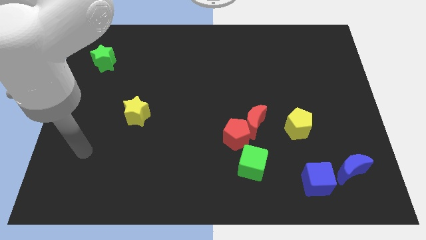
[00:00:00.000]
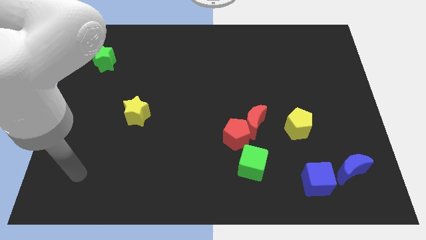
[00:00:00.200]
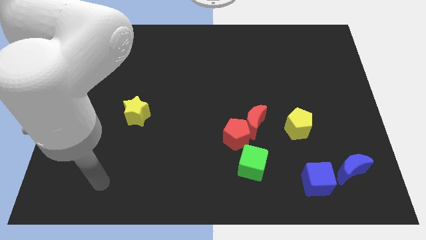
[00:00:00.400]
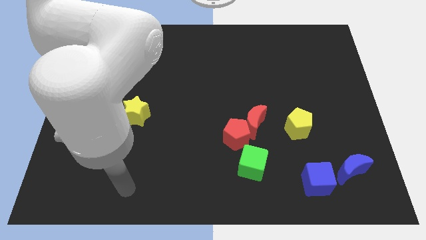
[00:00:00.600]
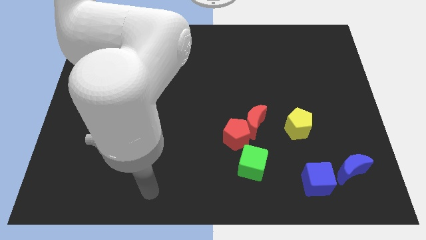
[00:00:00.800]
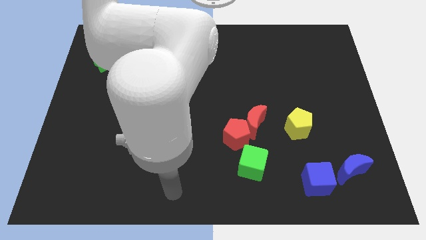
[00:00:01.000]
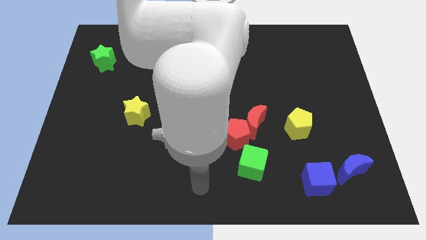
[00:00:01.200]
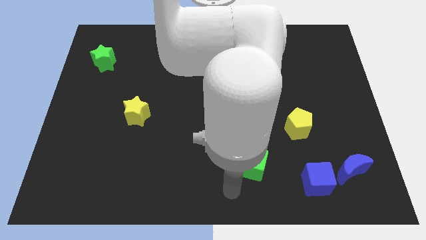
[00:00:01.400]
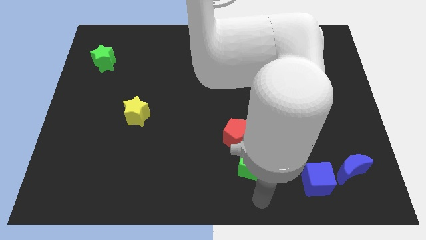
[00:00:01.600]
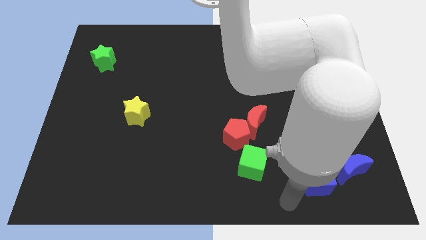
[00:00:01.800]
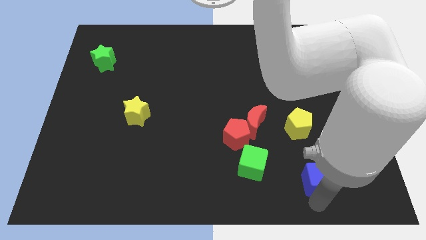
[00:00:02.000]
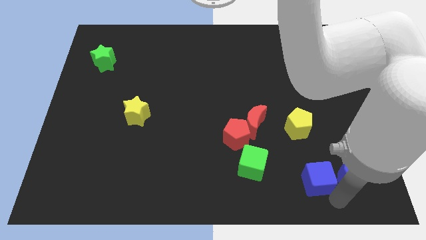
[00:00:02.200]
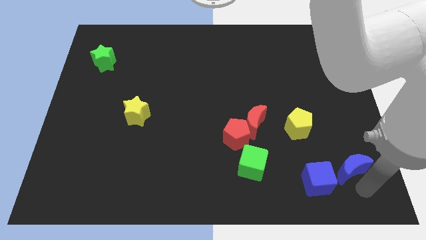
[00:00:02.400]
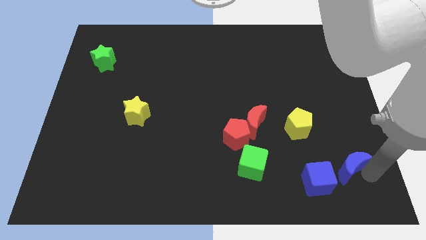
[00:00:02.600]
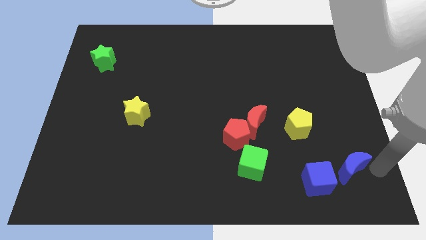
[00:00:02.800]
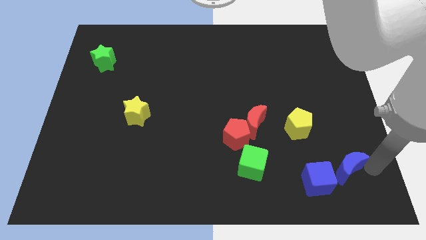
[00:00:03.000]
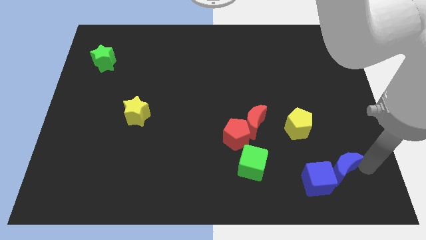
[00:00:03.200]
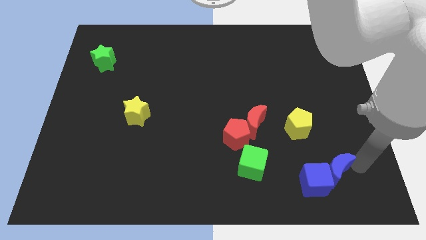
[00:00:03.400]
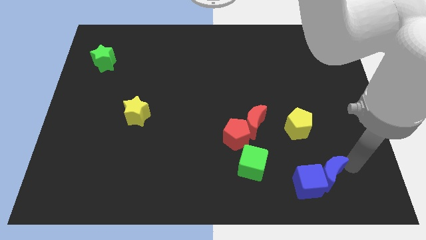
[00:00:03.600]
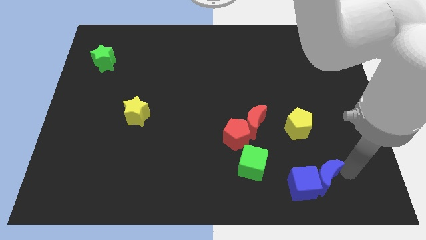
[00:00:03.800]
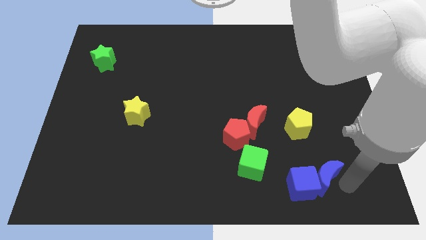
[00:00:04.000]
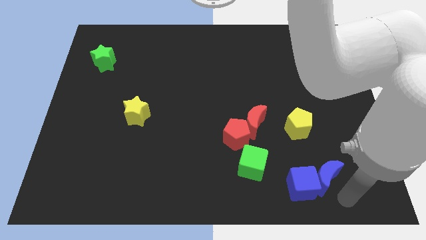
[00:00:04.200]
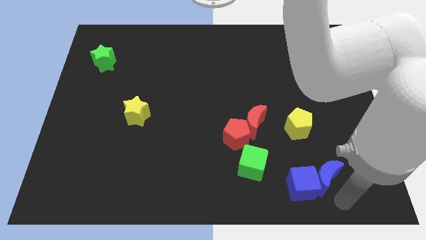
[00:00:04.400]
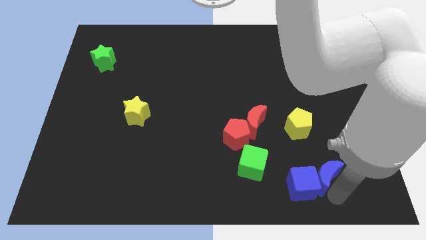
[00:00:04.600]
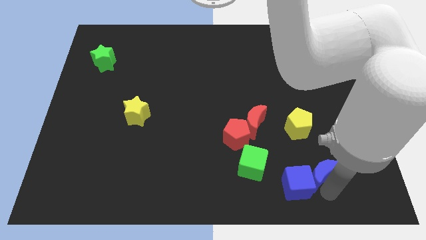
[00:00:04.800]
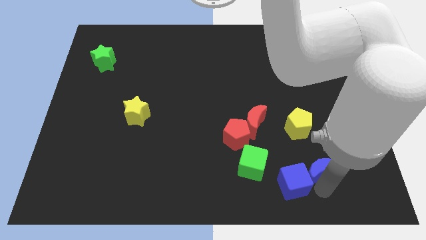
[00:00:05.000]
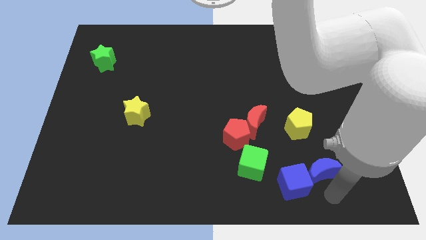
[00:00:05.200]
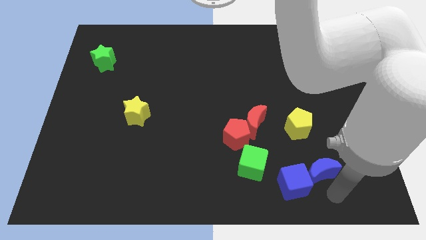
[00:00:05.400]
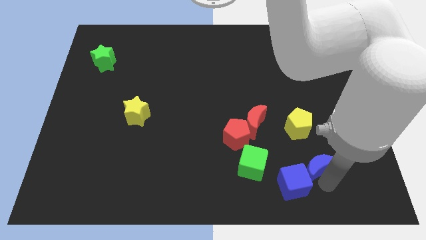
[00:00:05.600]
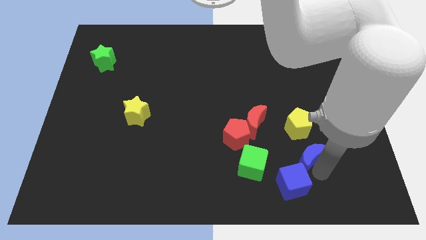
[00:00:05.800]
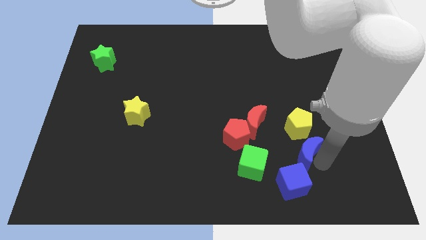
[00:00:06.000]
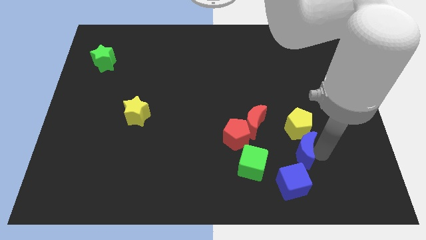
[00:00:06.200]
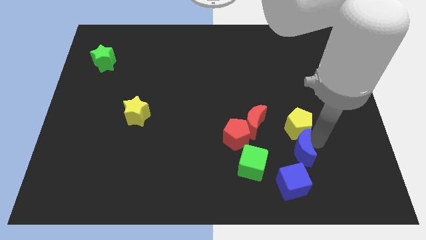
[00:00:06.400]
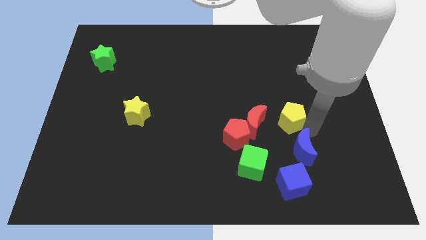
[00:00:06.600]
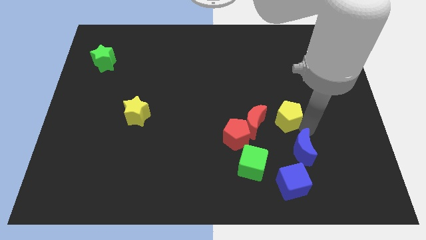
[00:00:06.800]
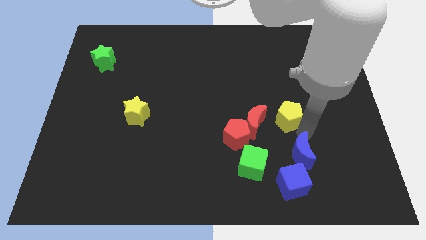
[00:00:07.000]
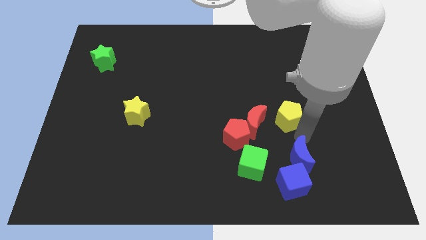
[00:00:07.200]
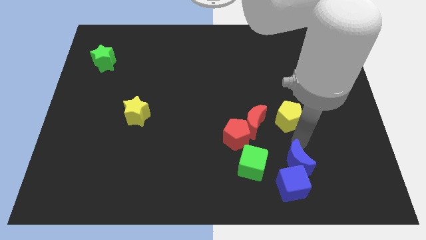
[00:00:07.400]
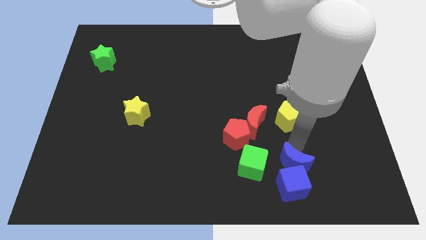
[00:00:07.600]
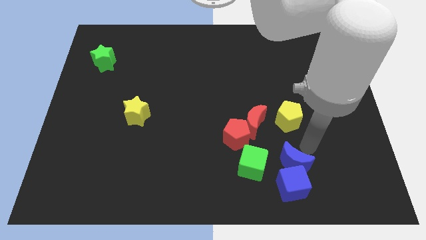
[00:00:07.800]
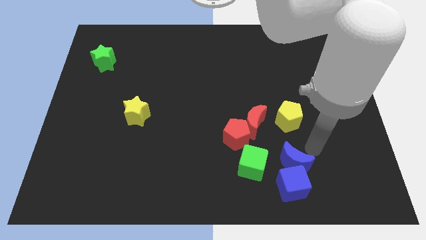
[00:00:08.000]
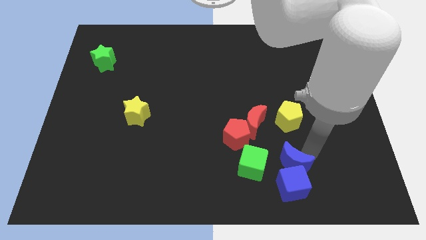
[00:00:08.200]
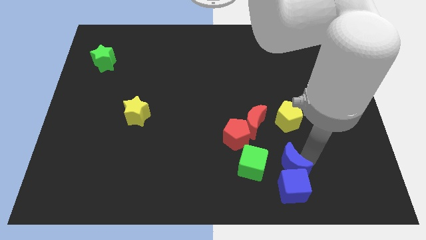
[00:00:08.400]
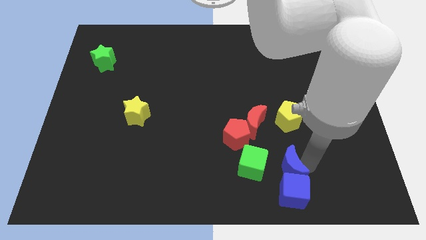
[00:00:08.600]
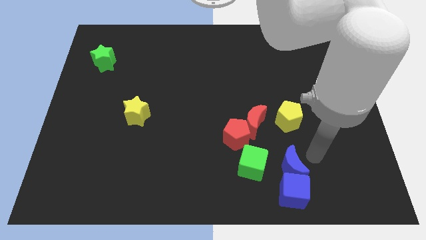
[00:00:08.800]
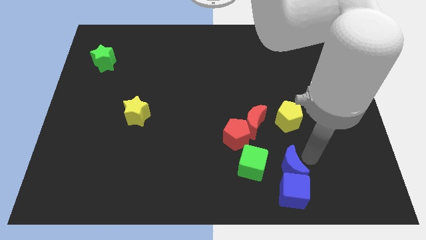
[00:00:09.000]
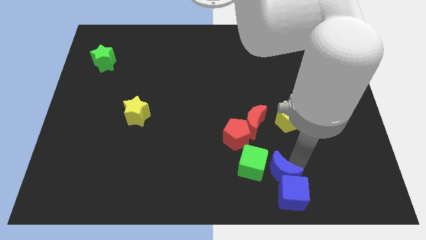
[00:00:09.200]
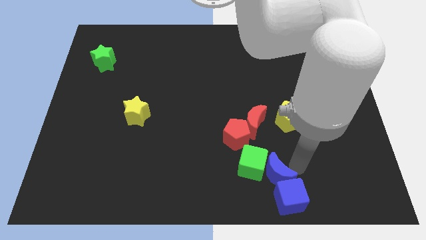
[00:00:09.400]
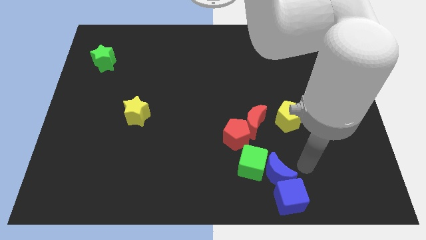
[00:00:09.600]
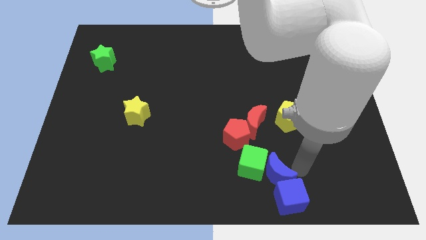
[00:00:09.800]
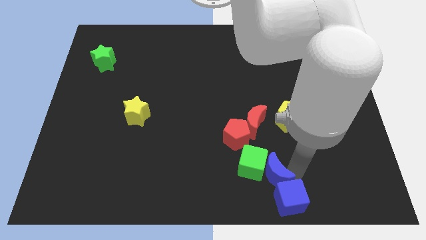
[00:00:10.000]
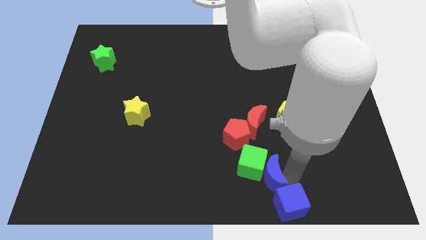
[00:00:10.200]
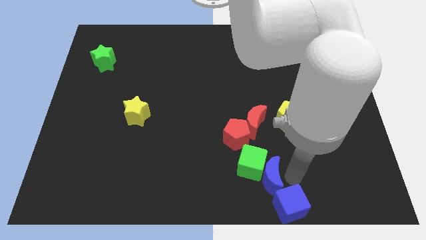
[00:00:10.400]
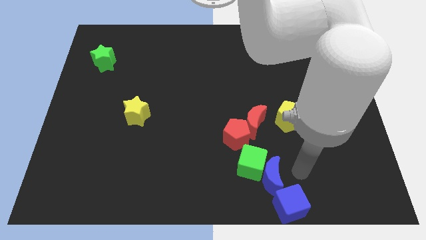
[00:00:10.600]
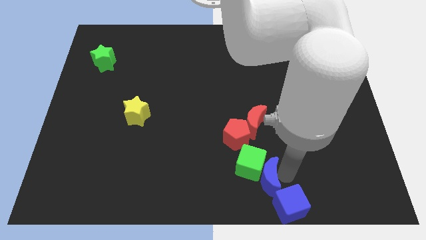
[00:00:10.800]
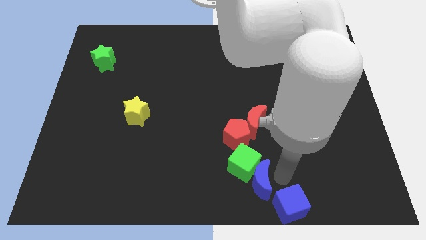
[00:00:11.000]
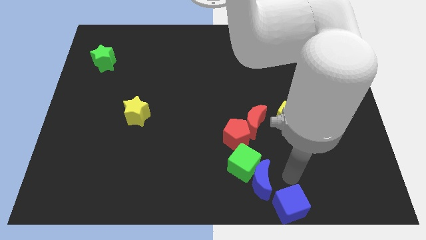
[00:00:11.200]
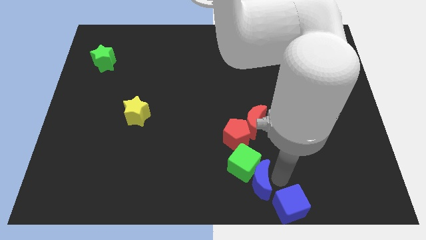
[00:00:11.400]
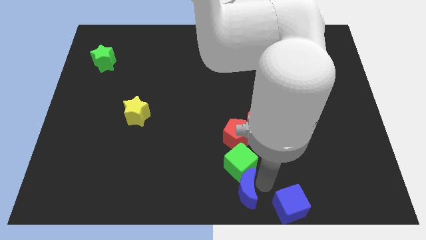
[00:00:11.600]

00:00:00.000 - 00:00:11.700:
slide the blue moon left

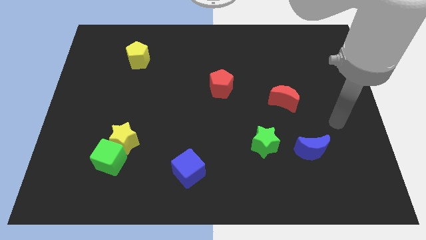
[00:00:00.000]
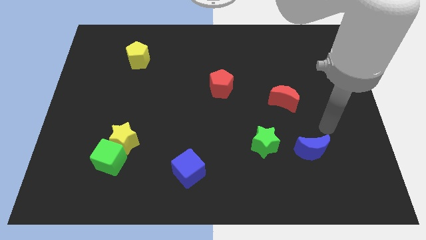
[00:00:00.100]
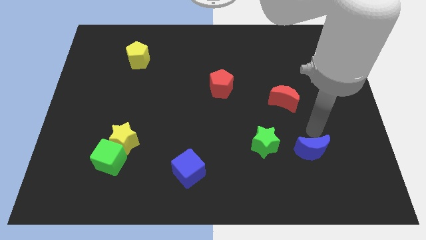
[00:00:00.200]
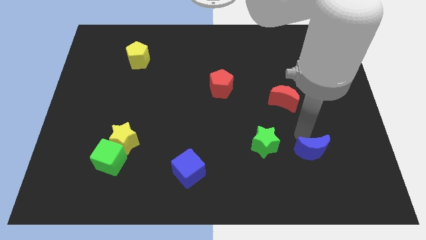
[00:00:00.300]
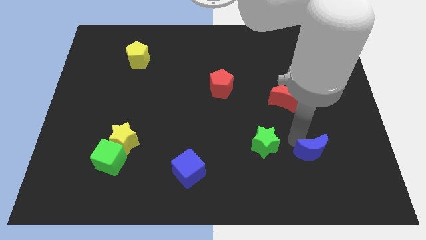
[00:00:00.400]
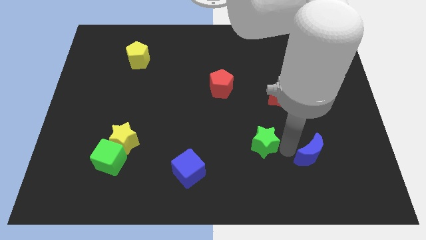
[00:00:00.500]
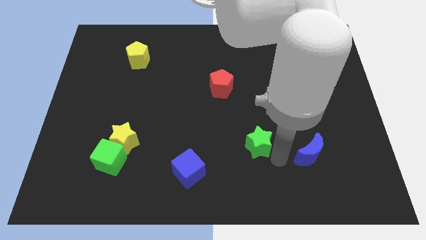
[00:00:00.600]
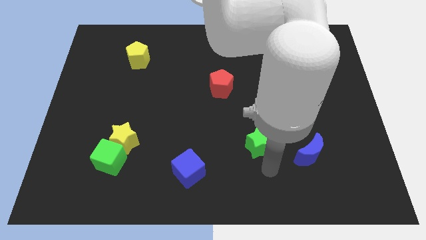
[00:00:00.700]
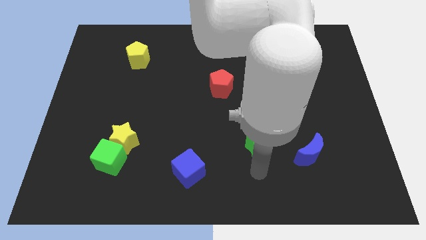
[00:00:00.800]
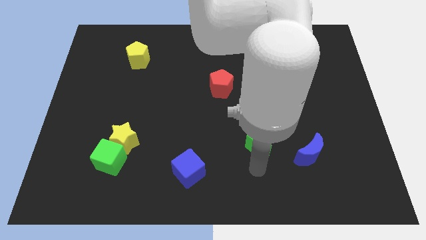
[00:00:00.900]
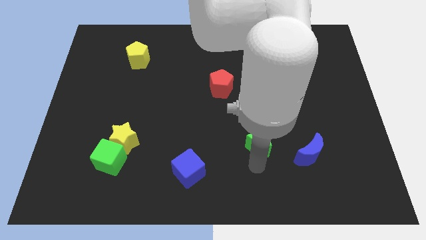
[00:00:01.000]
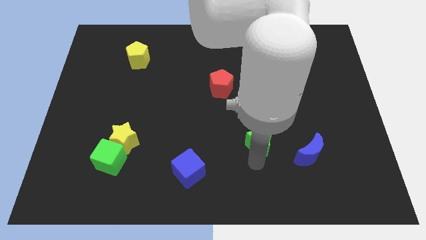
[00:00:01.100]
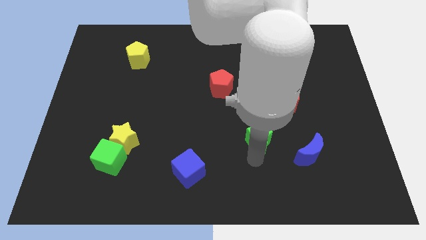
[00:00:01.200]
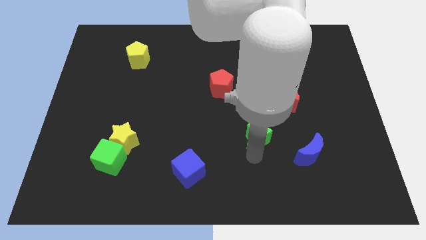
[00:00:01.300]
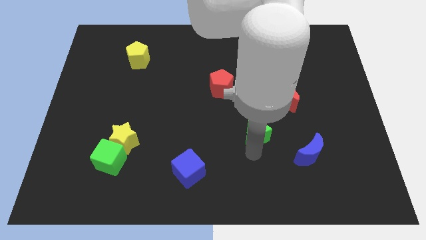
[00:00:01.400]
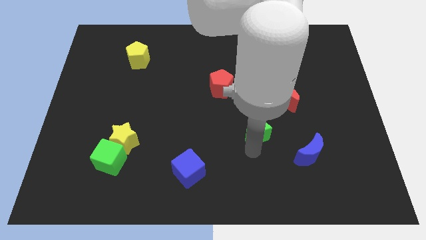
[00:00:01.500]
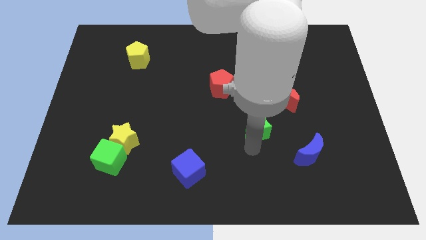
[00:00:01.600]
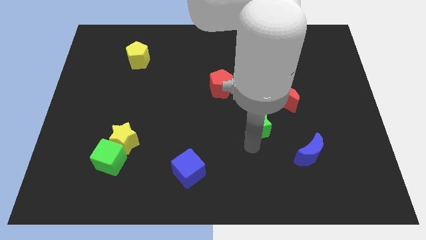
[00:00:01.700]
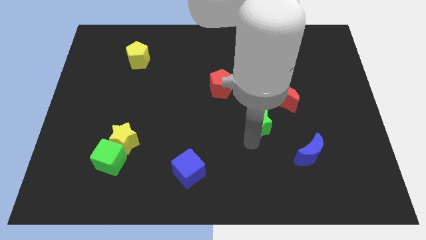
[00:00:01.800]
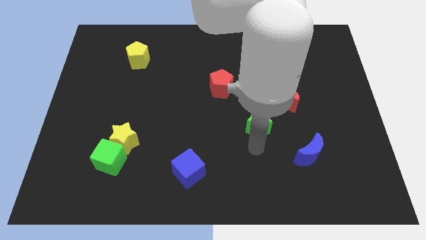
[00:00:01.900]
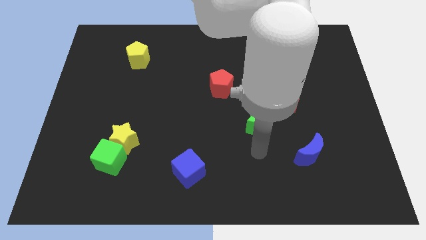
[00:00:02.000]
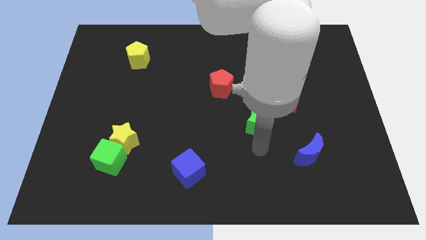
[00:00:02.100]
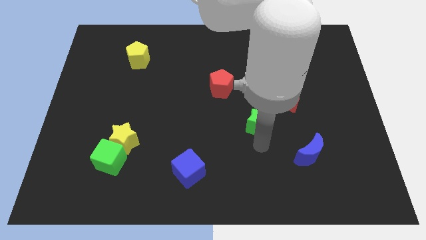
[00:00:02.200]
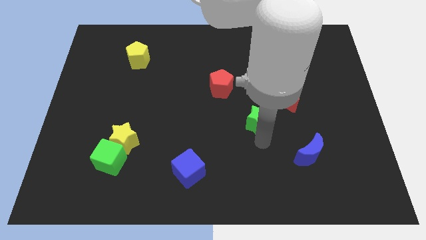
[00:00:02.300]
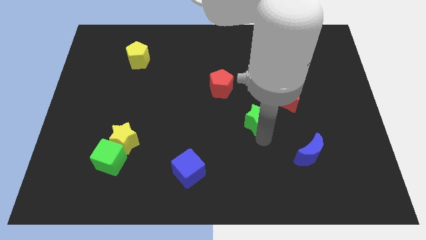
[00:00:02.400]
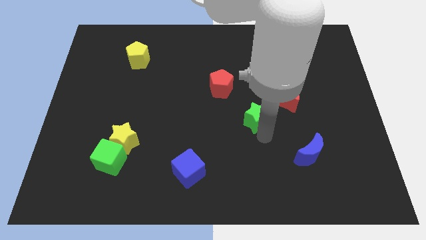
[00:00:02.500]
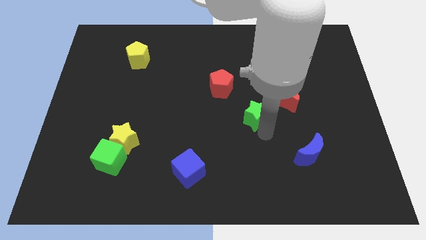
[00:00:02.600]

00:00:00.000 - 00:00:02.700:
slightly move the green star up
